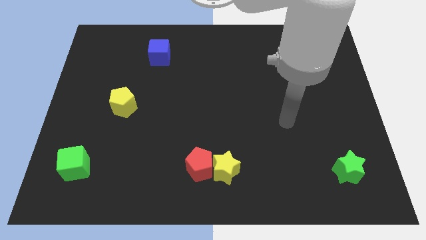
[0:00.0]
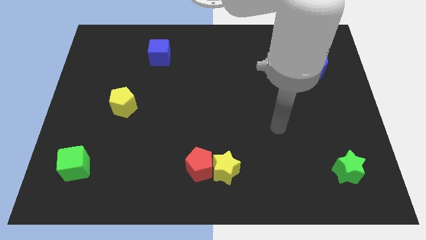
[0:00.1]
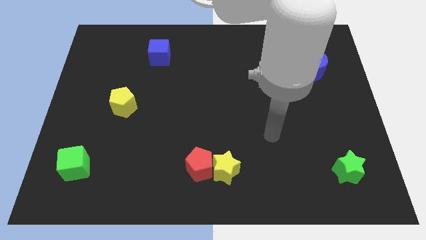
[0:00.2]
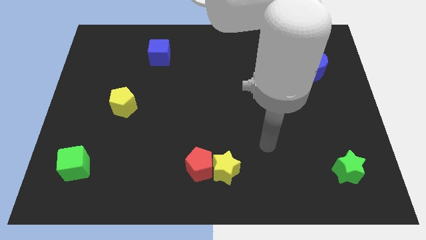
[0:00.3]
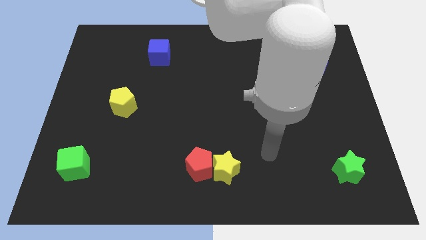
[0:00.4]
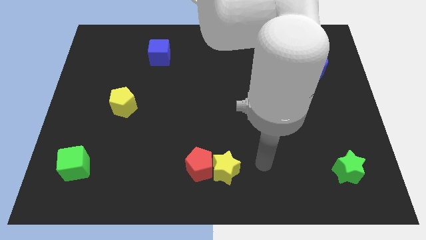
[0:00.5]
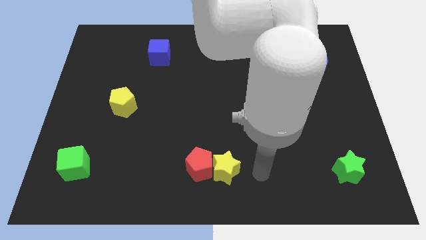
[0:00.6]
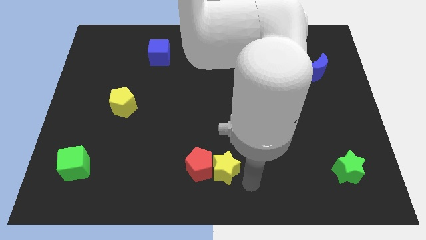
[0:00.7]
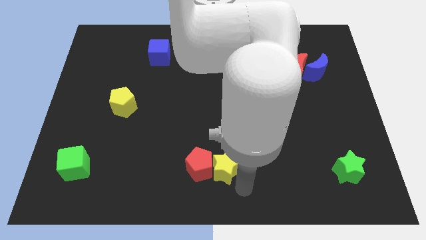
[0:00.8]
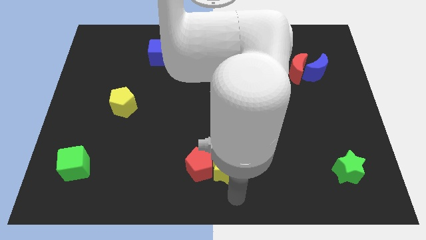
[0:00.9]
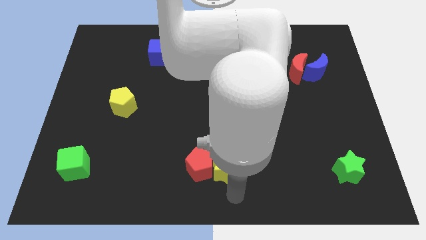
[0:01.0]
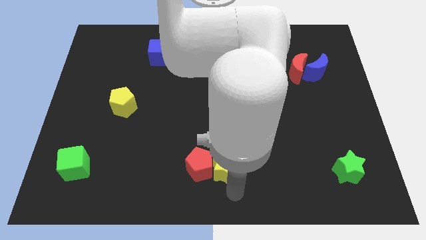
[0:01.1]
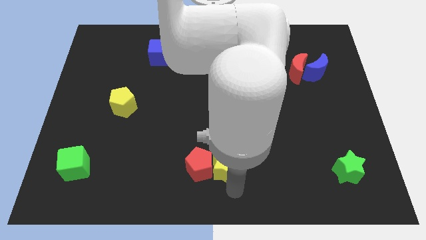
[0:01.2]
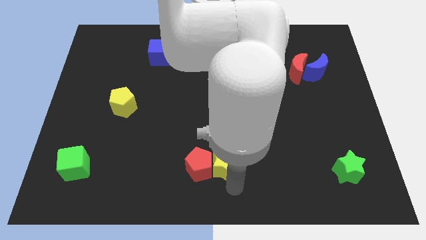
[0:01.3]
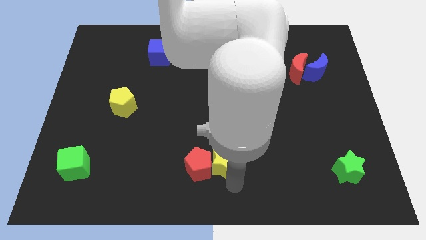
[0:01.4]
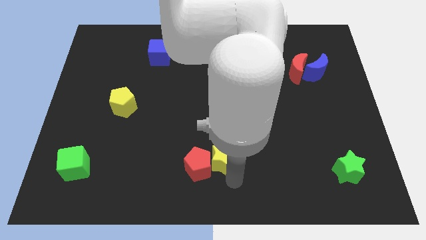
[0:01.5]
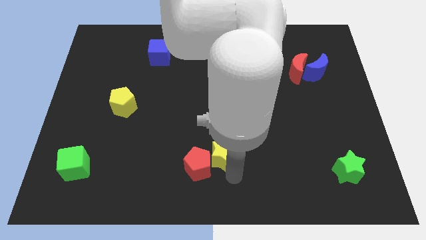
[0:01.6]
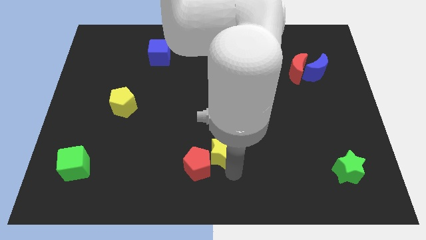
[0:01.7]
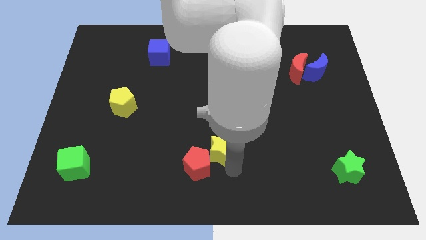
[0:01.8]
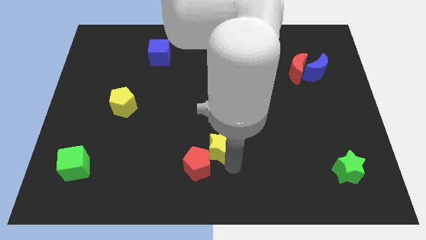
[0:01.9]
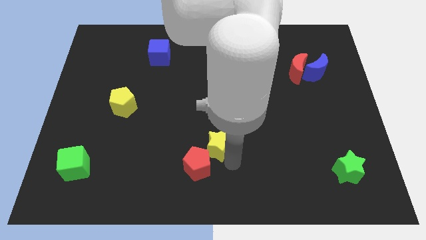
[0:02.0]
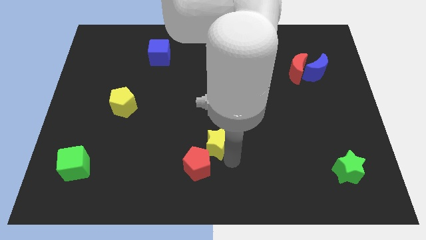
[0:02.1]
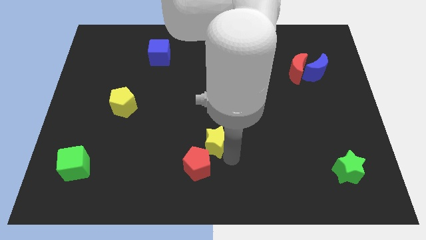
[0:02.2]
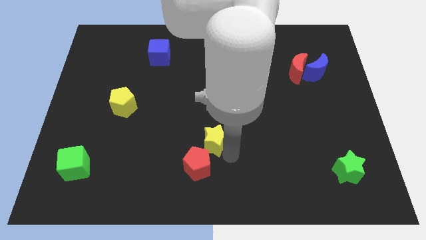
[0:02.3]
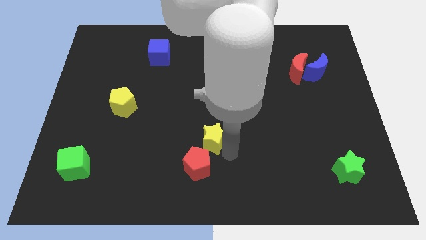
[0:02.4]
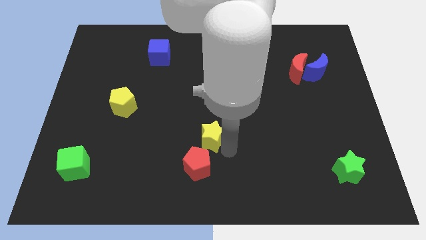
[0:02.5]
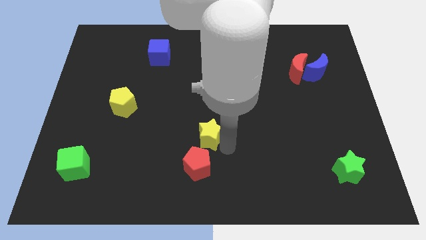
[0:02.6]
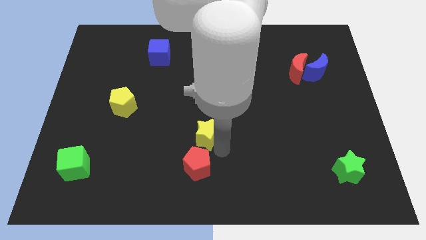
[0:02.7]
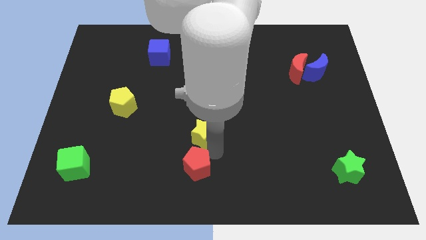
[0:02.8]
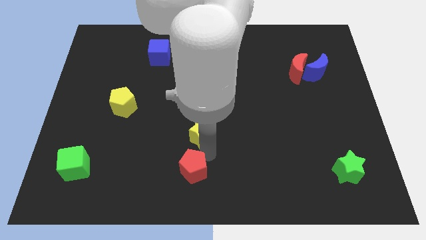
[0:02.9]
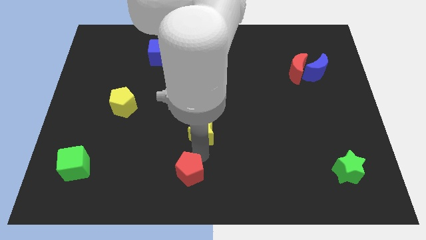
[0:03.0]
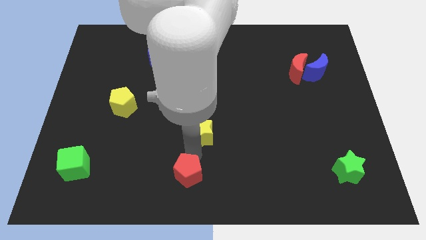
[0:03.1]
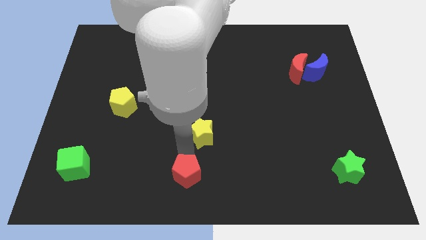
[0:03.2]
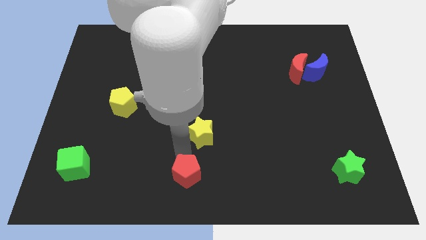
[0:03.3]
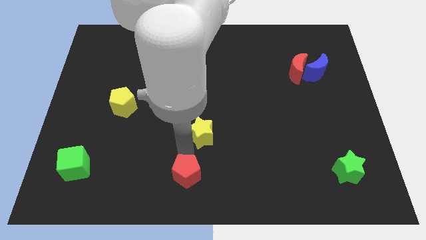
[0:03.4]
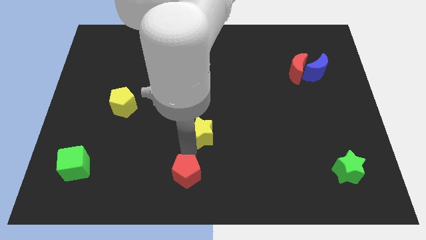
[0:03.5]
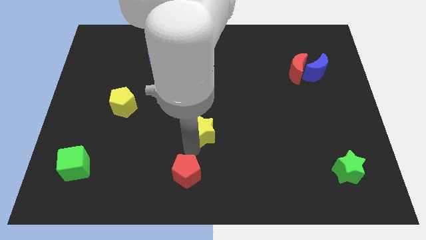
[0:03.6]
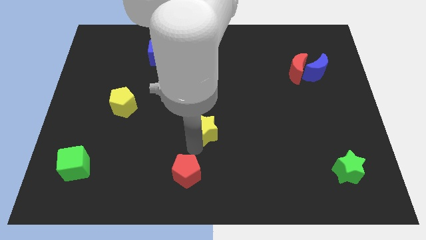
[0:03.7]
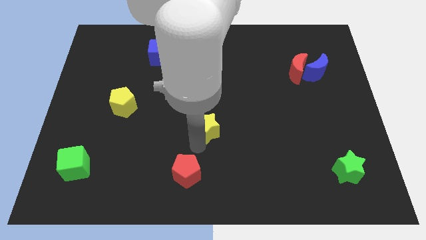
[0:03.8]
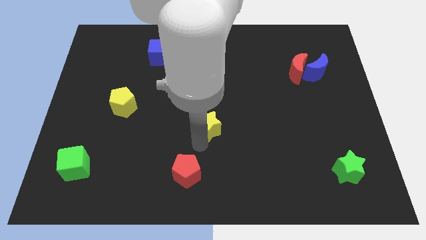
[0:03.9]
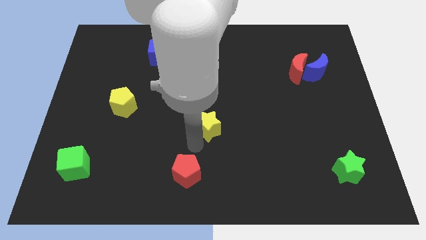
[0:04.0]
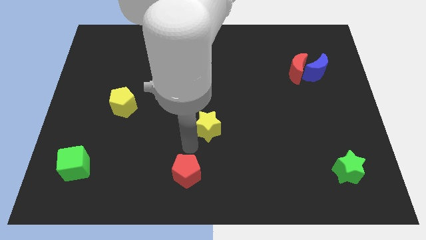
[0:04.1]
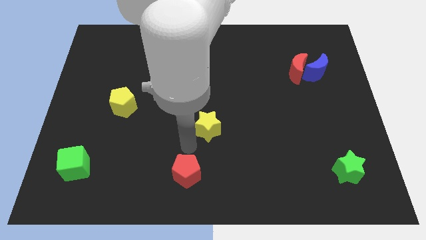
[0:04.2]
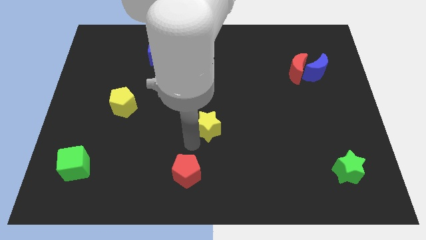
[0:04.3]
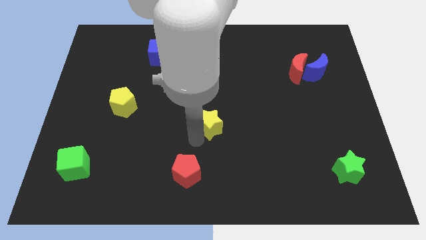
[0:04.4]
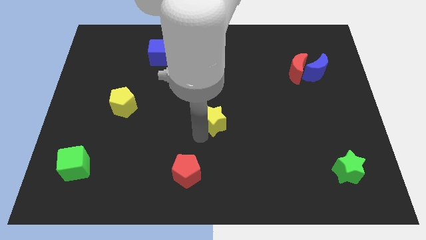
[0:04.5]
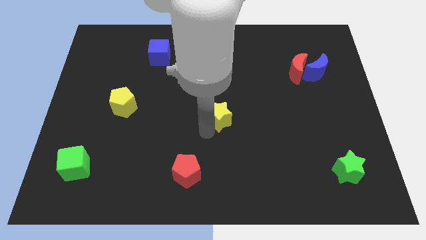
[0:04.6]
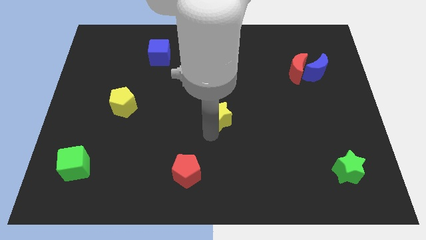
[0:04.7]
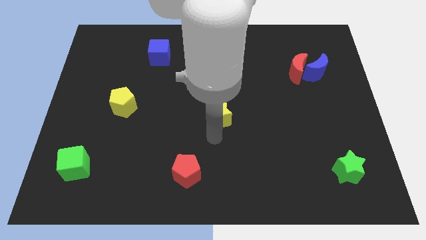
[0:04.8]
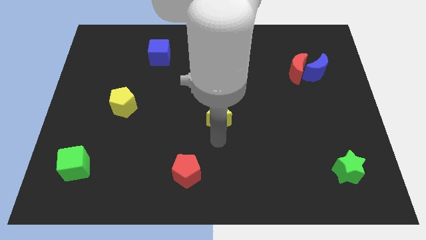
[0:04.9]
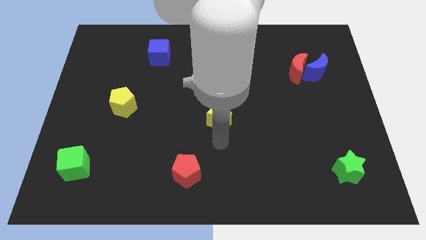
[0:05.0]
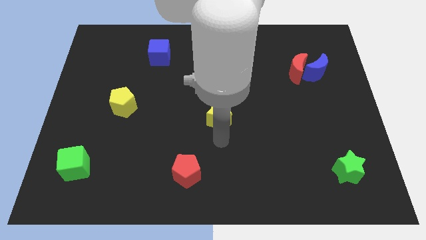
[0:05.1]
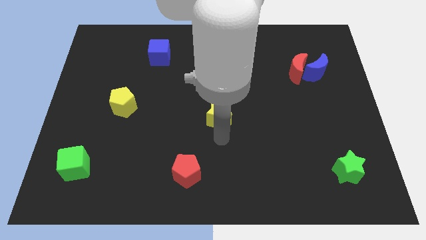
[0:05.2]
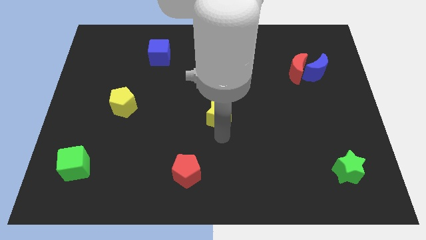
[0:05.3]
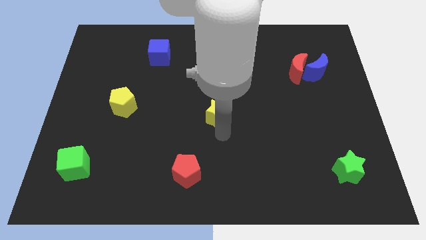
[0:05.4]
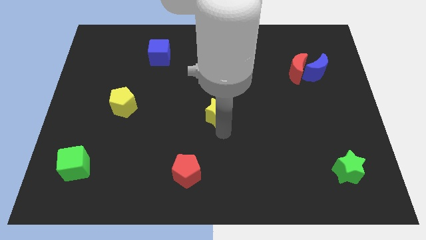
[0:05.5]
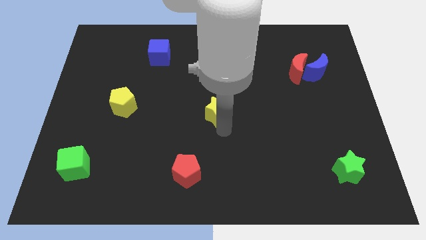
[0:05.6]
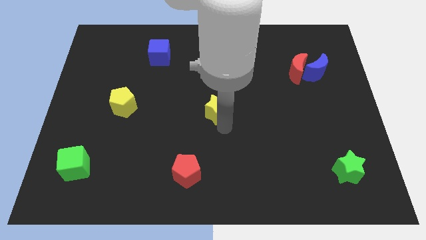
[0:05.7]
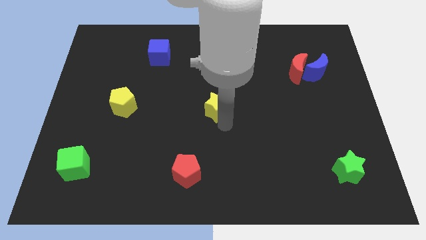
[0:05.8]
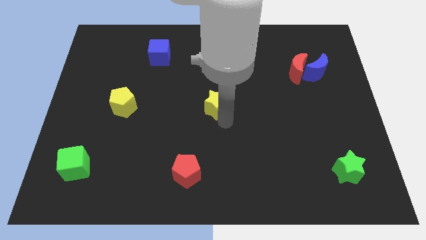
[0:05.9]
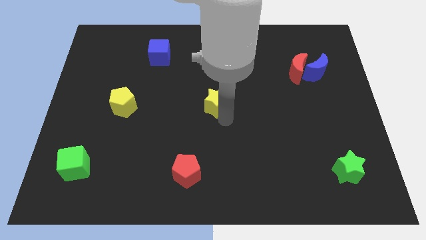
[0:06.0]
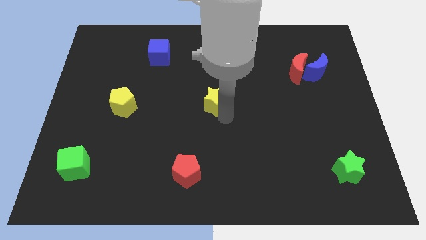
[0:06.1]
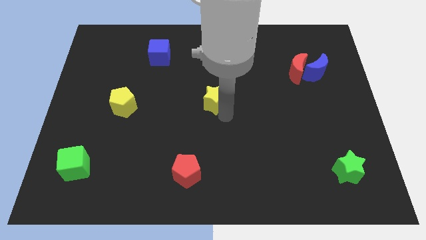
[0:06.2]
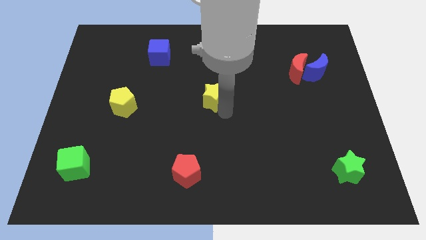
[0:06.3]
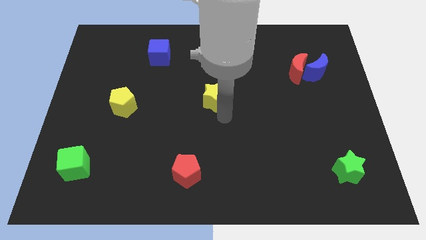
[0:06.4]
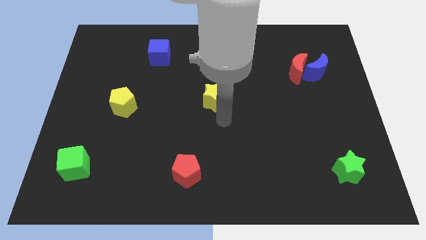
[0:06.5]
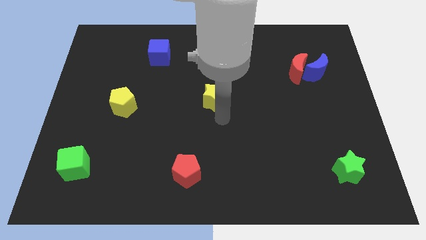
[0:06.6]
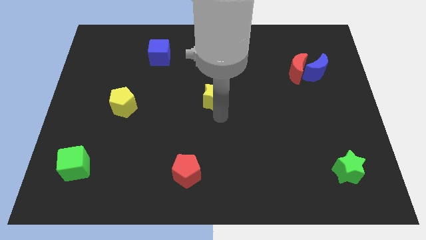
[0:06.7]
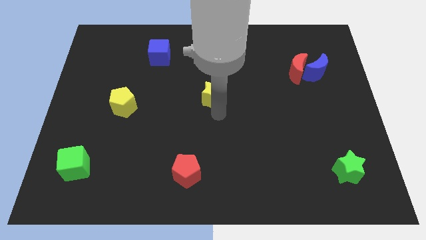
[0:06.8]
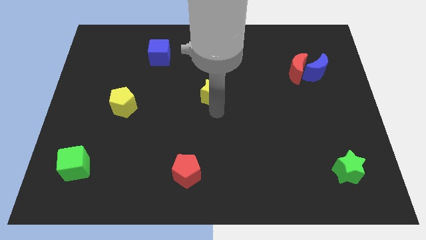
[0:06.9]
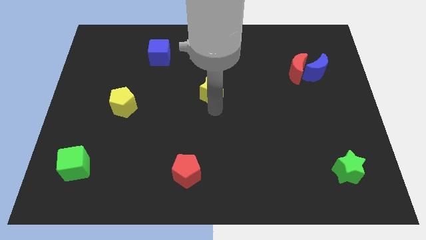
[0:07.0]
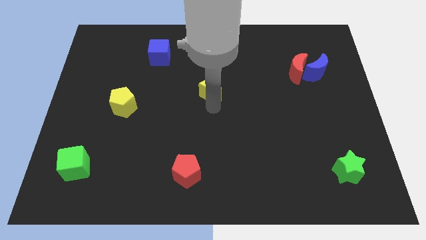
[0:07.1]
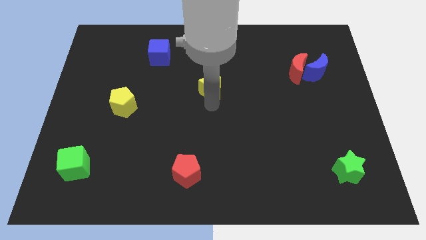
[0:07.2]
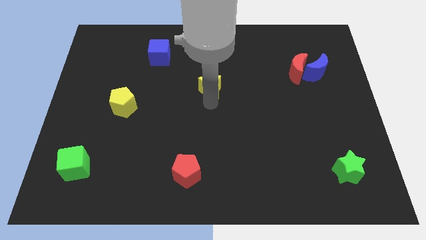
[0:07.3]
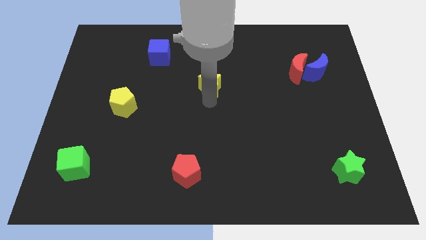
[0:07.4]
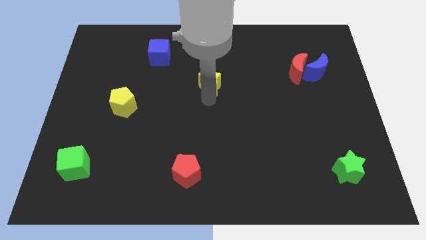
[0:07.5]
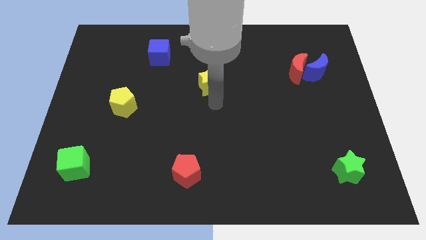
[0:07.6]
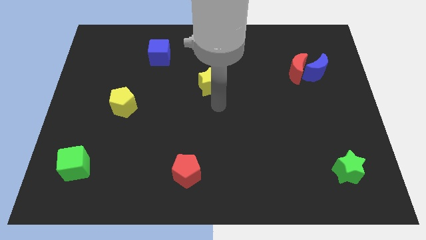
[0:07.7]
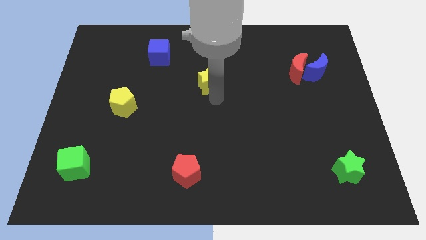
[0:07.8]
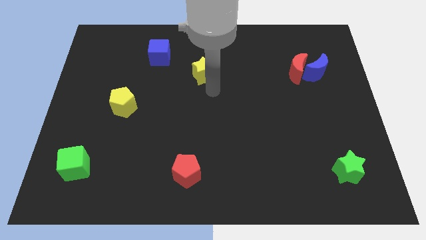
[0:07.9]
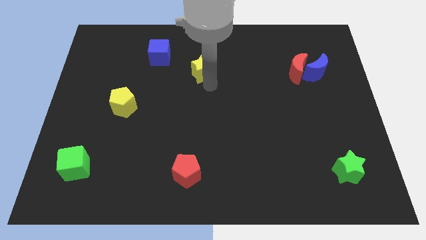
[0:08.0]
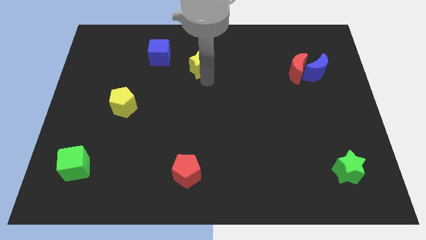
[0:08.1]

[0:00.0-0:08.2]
slide the yellow star to the right of the blue cube
